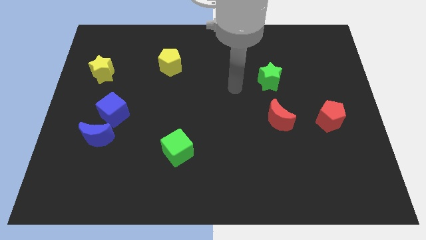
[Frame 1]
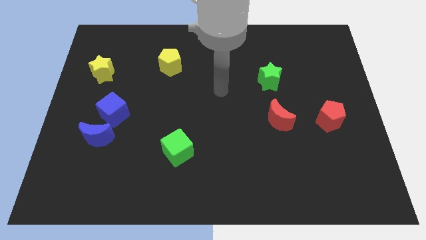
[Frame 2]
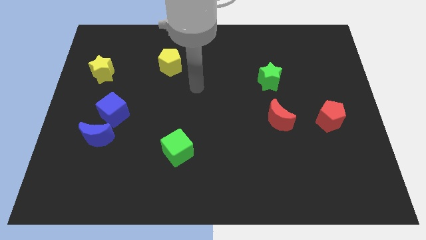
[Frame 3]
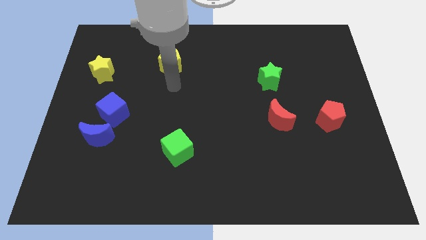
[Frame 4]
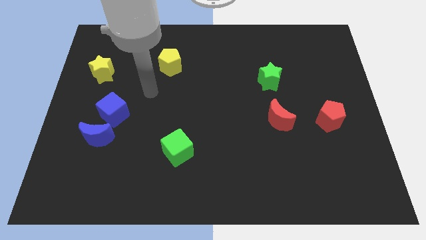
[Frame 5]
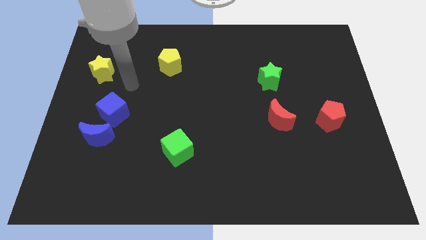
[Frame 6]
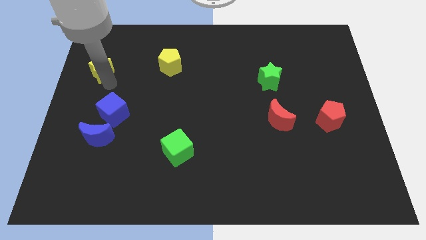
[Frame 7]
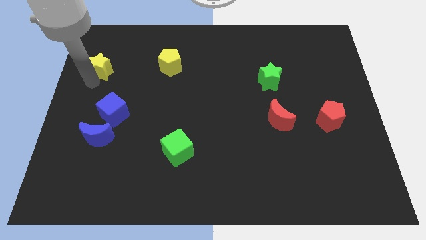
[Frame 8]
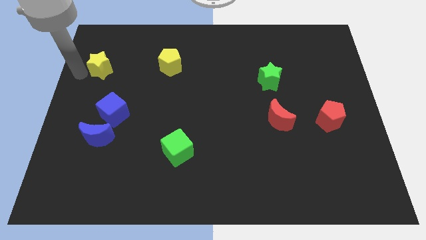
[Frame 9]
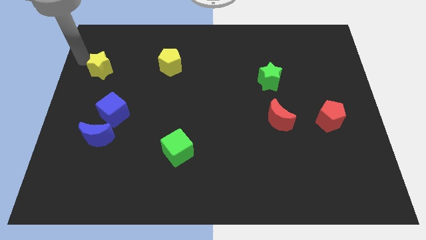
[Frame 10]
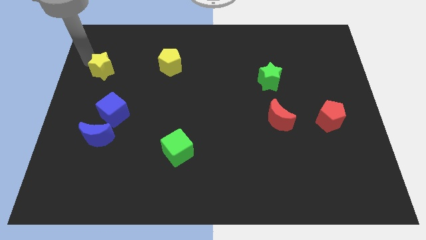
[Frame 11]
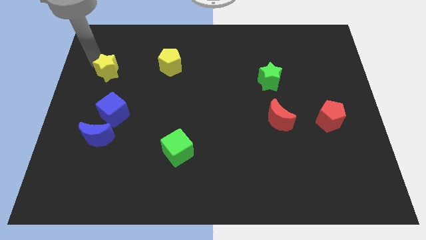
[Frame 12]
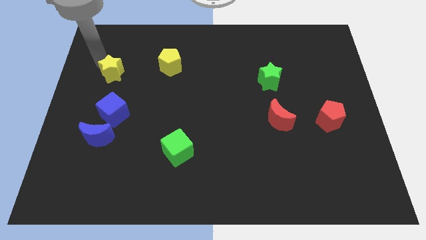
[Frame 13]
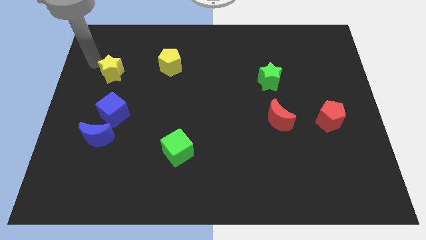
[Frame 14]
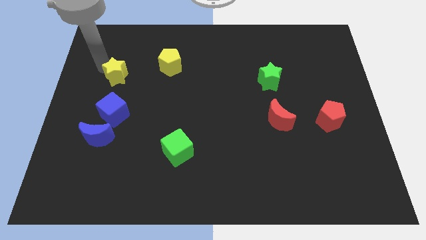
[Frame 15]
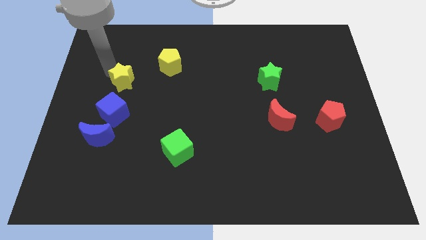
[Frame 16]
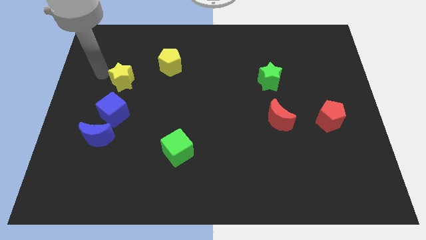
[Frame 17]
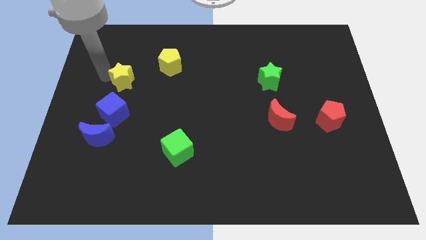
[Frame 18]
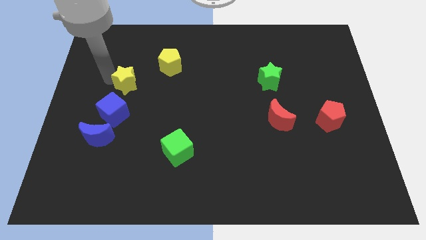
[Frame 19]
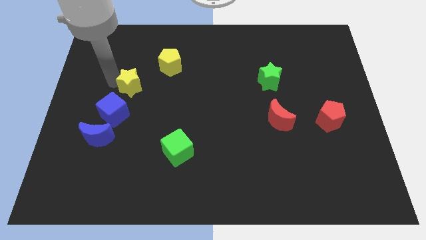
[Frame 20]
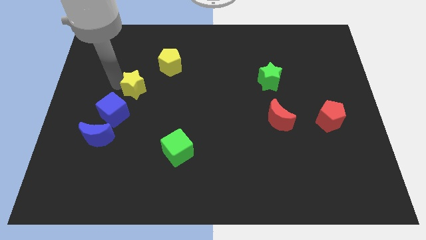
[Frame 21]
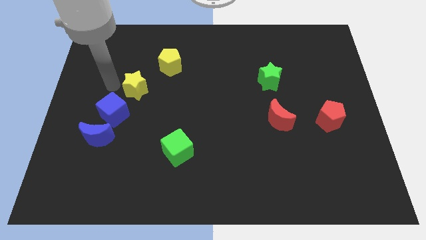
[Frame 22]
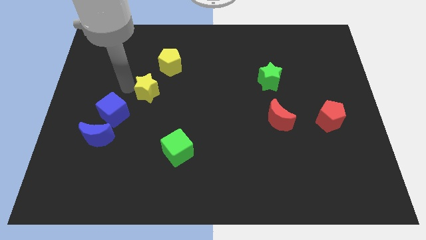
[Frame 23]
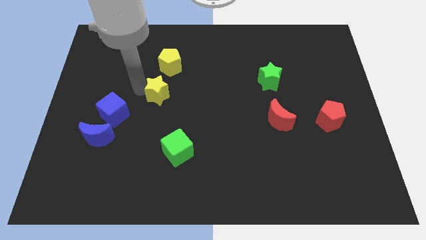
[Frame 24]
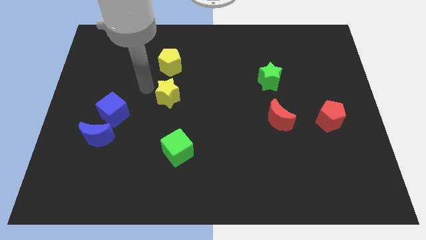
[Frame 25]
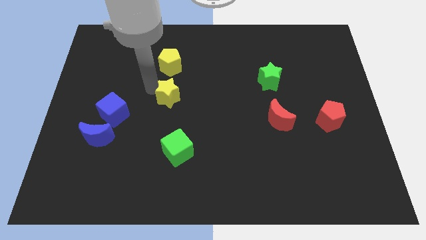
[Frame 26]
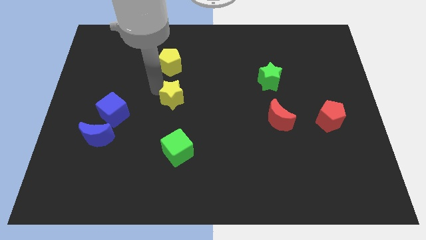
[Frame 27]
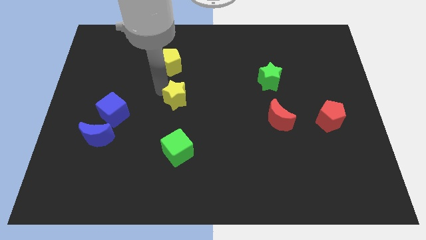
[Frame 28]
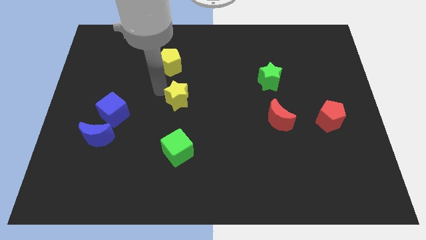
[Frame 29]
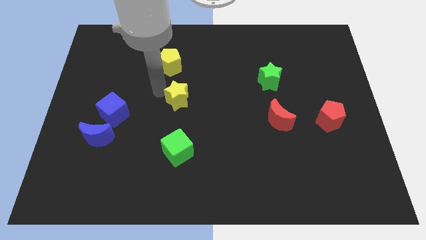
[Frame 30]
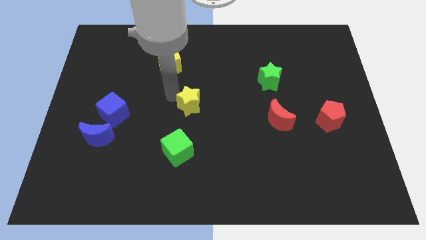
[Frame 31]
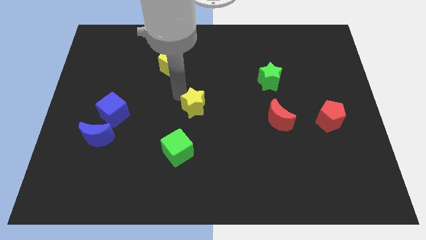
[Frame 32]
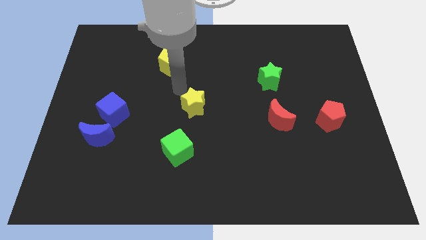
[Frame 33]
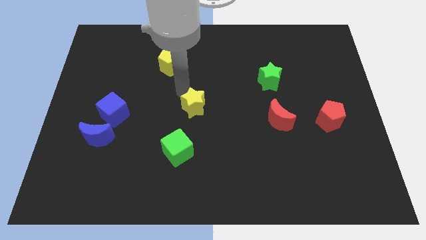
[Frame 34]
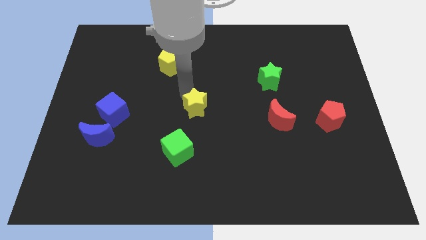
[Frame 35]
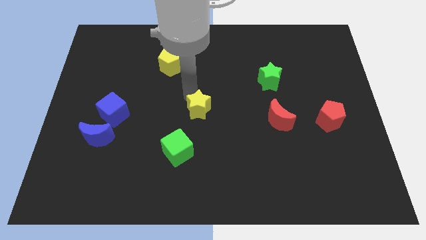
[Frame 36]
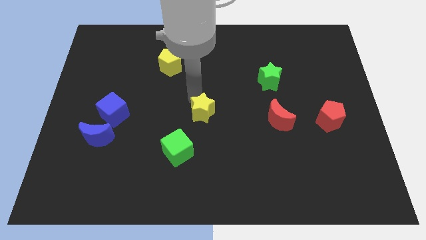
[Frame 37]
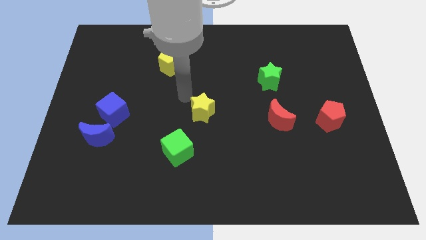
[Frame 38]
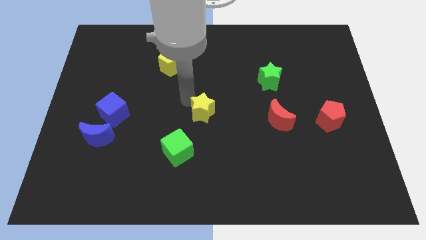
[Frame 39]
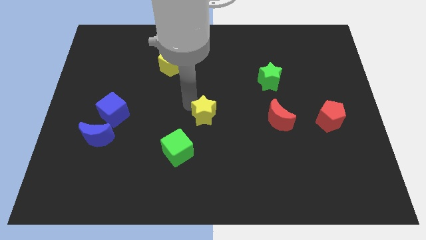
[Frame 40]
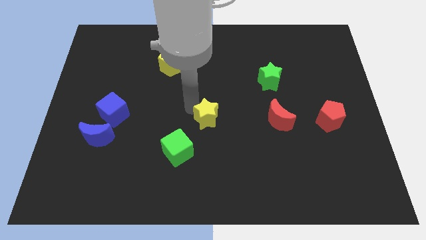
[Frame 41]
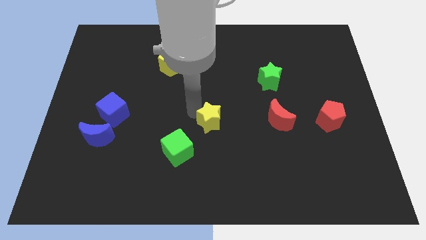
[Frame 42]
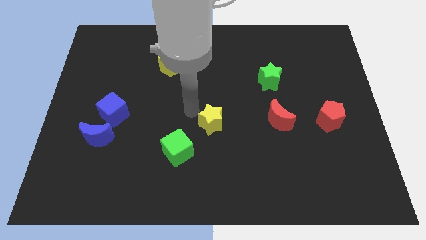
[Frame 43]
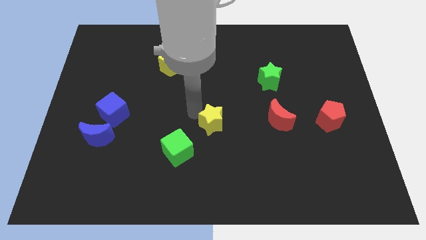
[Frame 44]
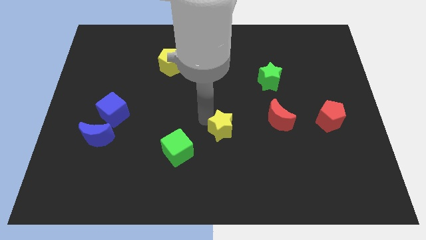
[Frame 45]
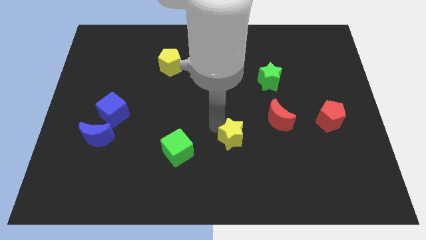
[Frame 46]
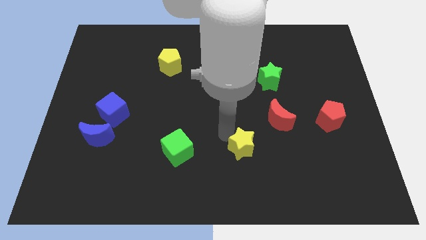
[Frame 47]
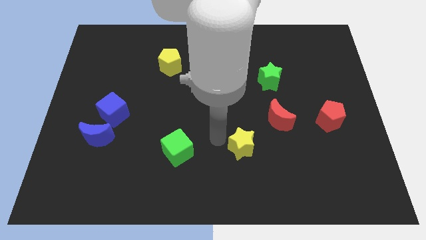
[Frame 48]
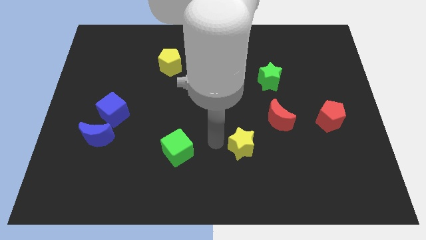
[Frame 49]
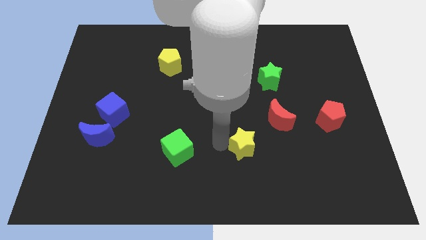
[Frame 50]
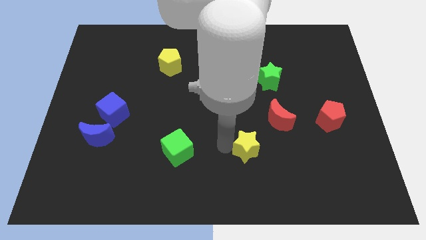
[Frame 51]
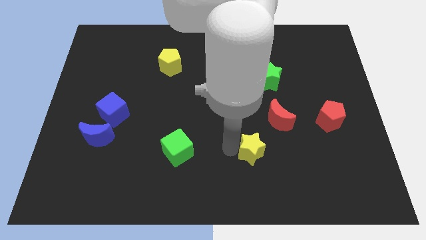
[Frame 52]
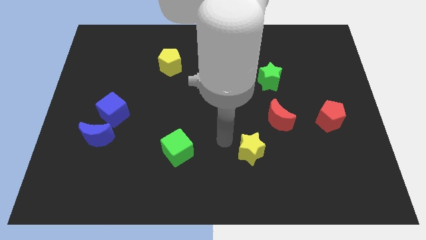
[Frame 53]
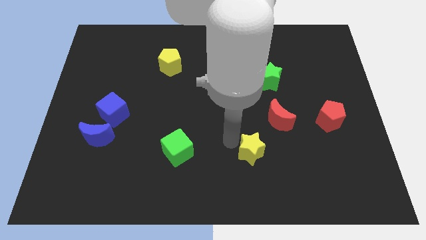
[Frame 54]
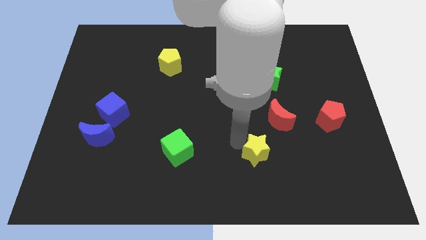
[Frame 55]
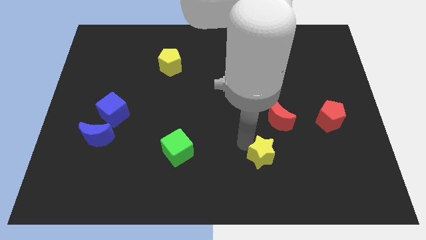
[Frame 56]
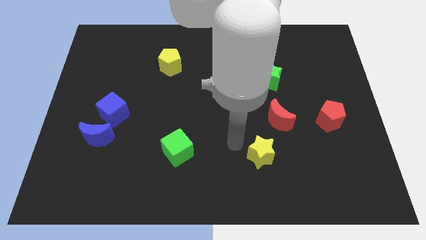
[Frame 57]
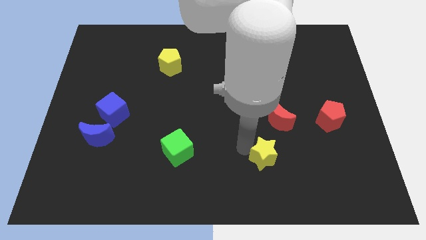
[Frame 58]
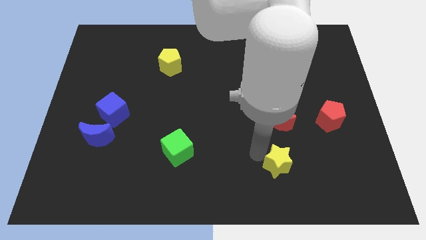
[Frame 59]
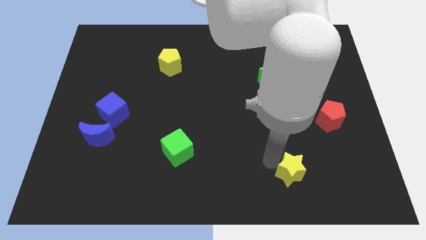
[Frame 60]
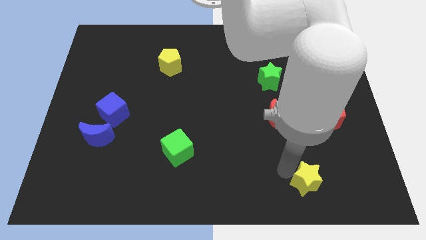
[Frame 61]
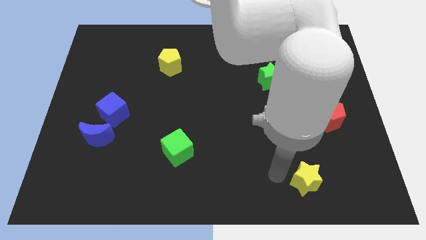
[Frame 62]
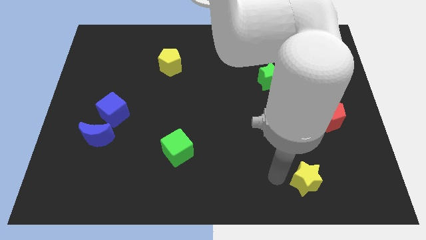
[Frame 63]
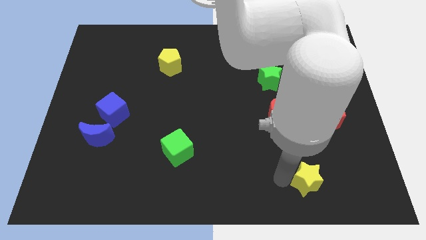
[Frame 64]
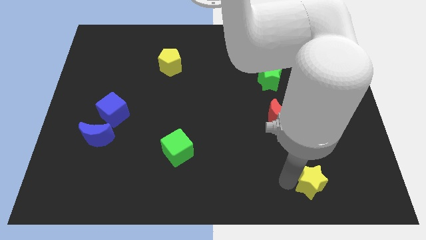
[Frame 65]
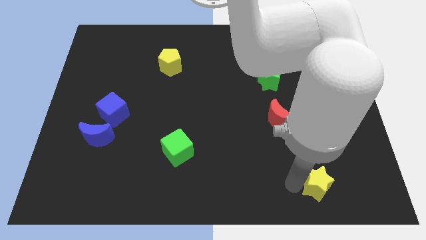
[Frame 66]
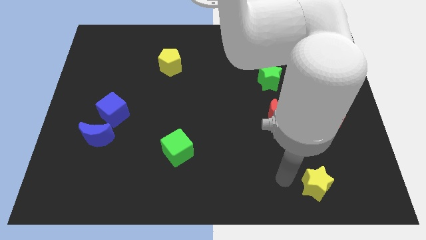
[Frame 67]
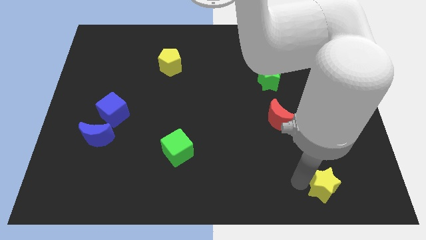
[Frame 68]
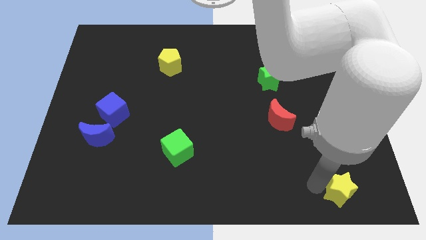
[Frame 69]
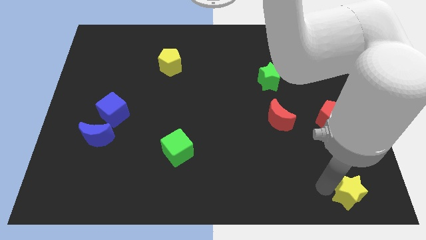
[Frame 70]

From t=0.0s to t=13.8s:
push the yellow star to the lower right corner

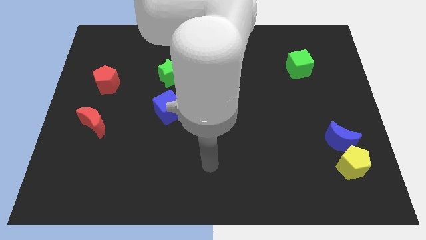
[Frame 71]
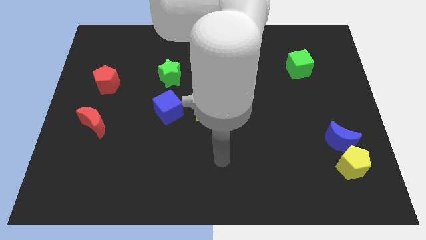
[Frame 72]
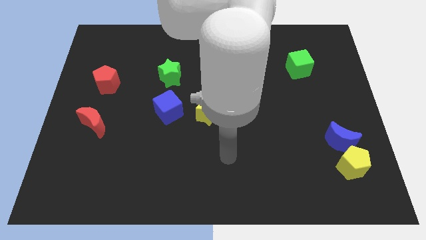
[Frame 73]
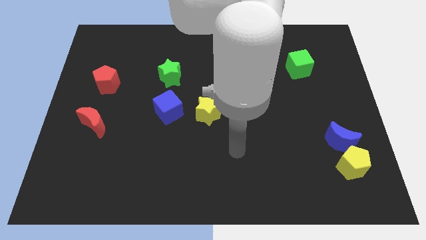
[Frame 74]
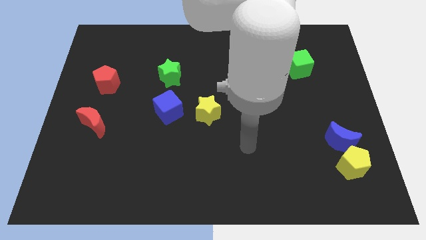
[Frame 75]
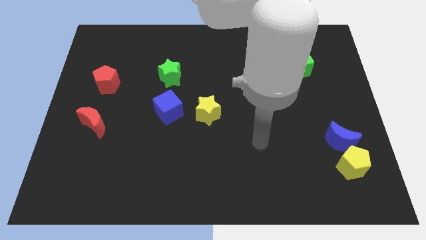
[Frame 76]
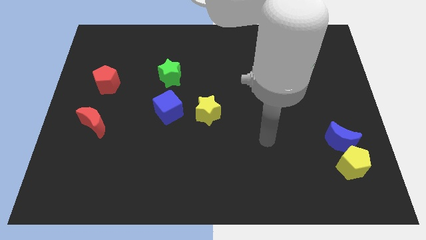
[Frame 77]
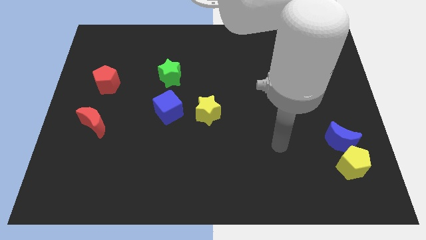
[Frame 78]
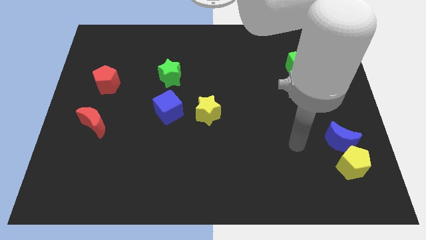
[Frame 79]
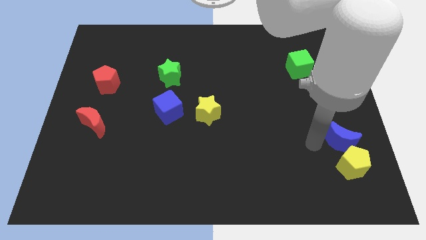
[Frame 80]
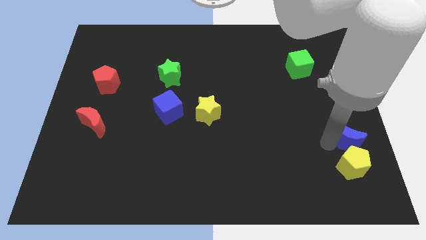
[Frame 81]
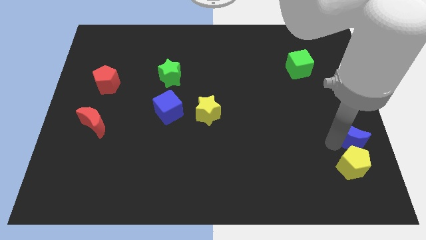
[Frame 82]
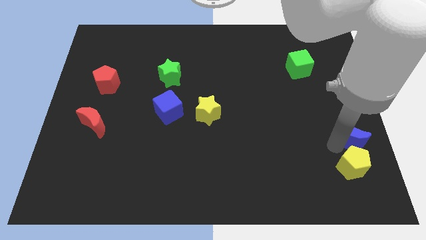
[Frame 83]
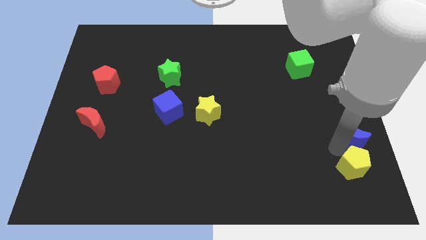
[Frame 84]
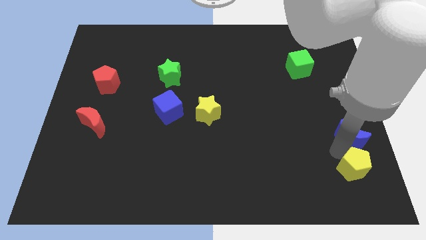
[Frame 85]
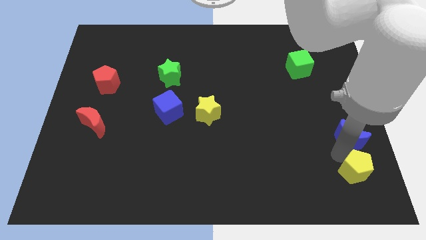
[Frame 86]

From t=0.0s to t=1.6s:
slide the yellow pentagon to the bottom right corner
